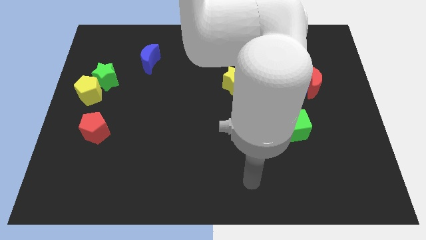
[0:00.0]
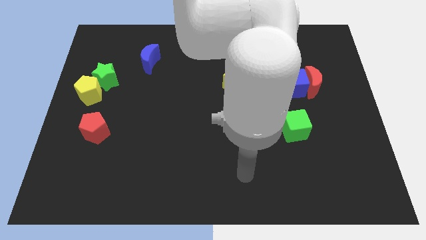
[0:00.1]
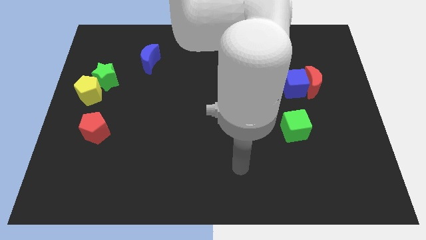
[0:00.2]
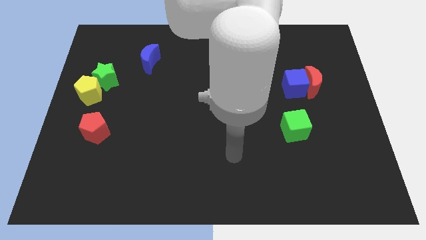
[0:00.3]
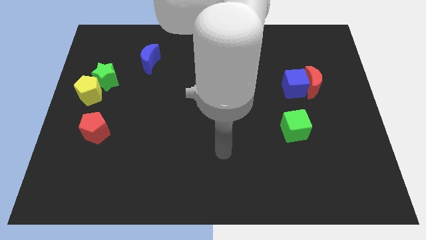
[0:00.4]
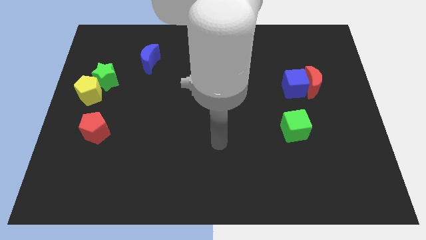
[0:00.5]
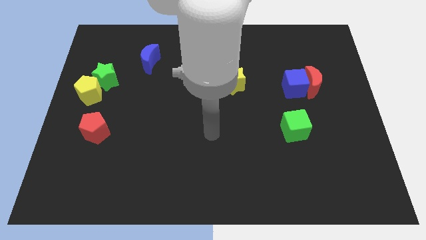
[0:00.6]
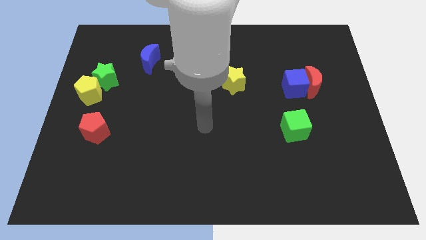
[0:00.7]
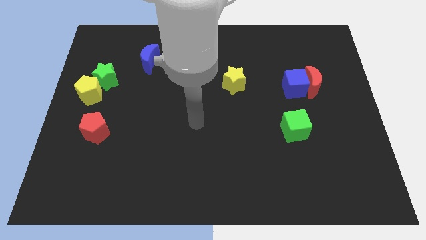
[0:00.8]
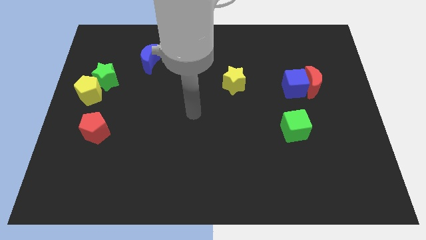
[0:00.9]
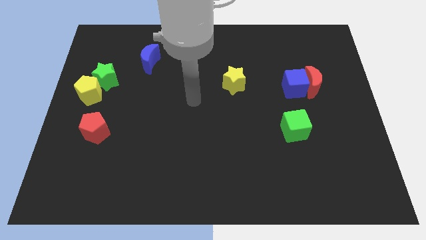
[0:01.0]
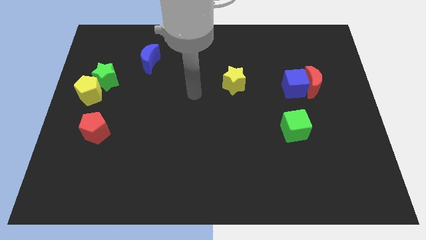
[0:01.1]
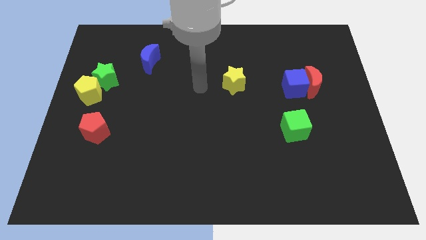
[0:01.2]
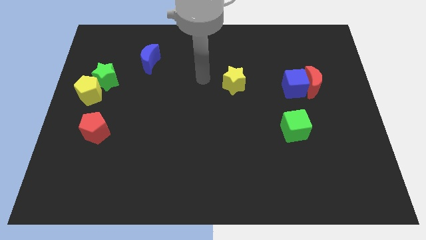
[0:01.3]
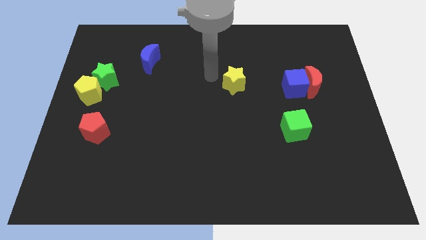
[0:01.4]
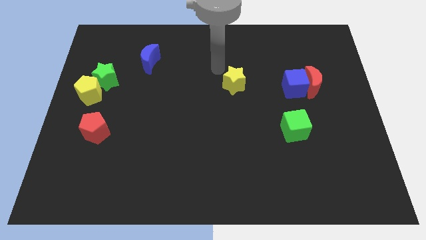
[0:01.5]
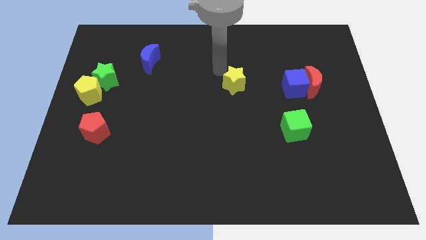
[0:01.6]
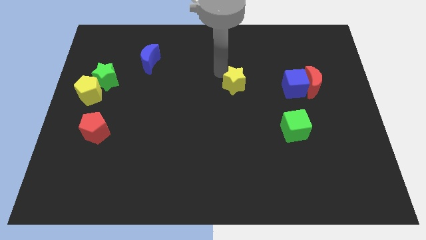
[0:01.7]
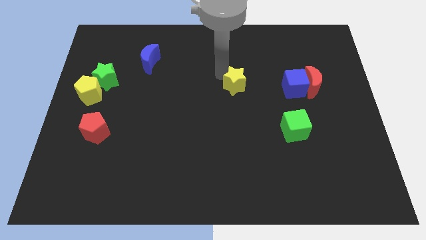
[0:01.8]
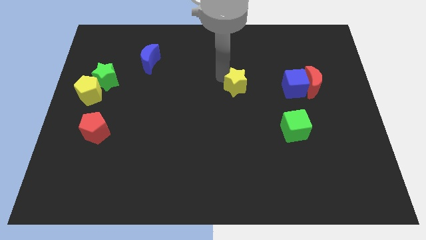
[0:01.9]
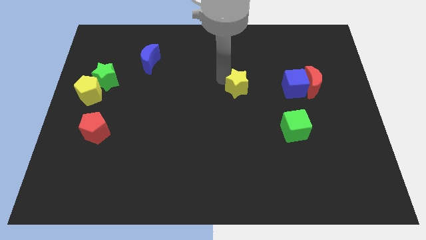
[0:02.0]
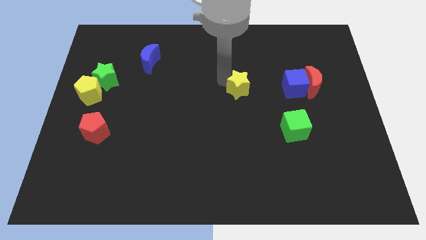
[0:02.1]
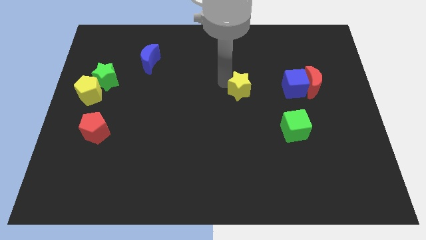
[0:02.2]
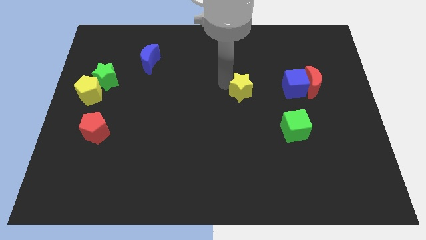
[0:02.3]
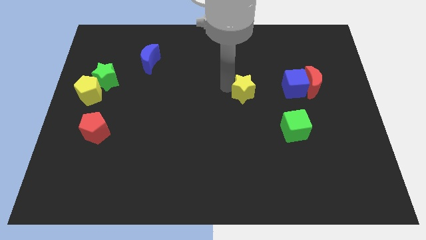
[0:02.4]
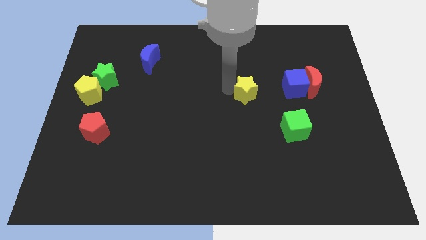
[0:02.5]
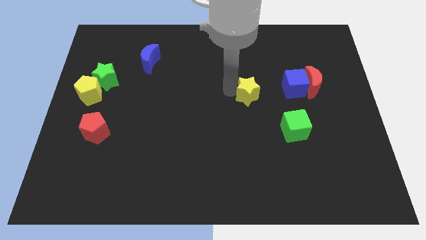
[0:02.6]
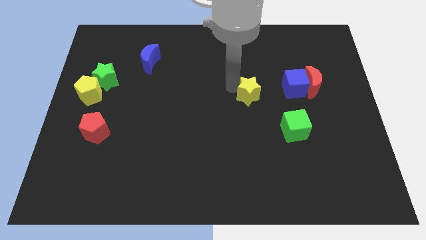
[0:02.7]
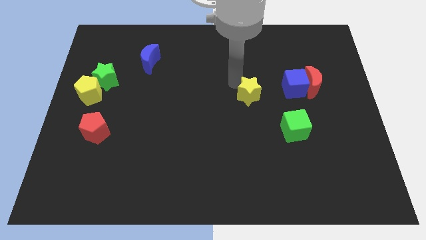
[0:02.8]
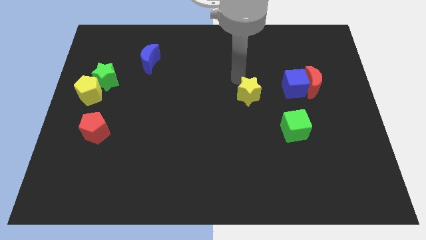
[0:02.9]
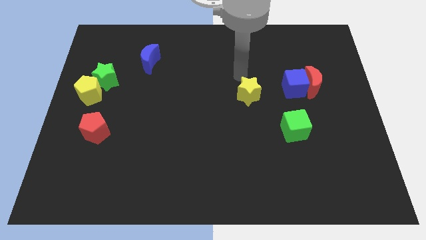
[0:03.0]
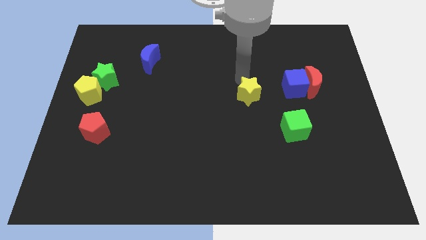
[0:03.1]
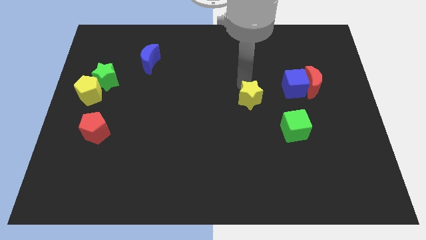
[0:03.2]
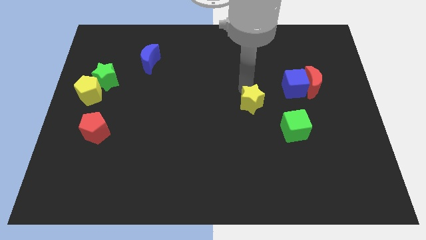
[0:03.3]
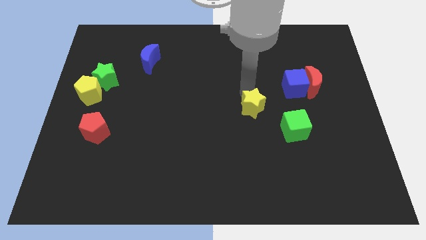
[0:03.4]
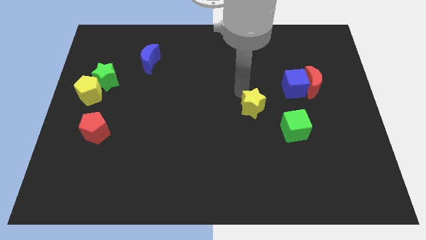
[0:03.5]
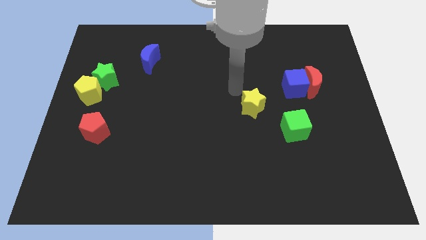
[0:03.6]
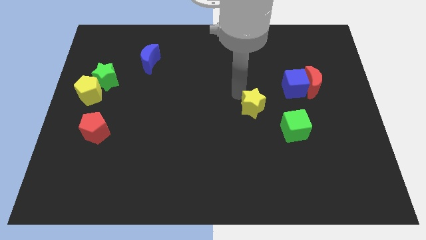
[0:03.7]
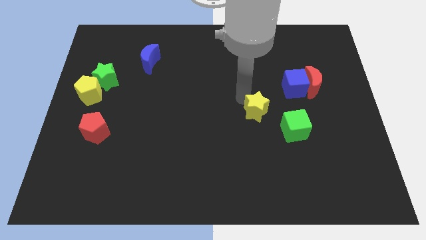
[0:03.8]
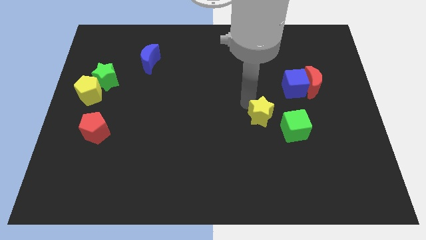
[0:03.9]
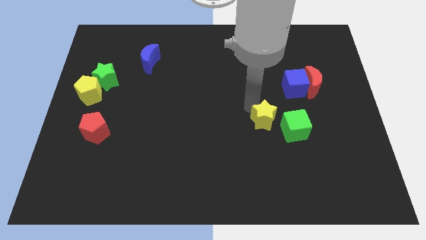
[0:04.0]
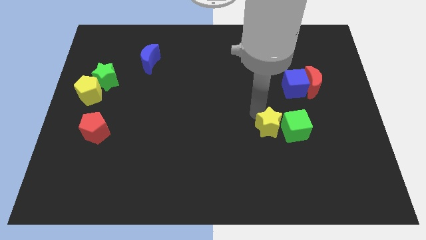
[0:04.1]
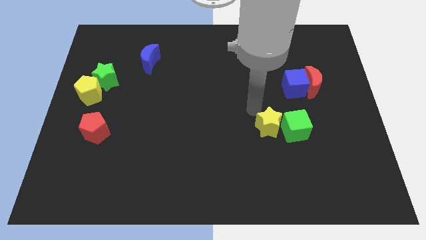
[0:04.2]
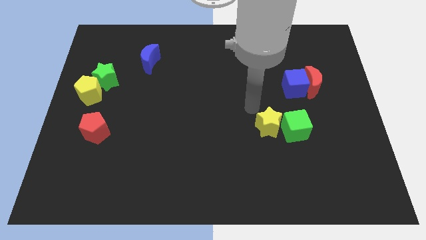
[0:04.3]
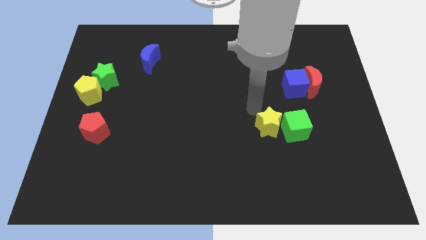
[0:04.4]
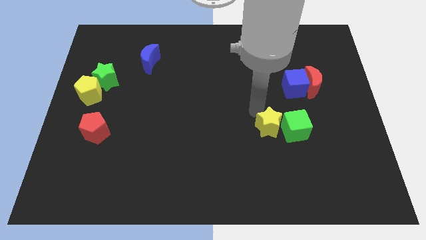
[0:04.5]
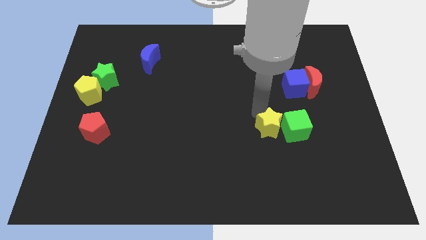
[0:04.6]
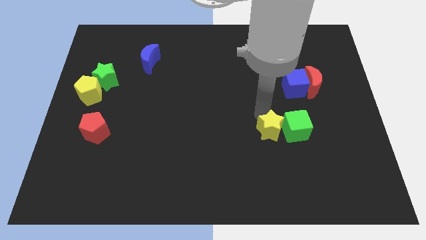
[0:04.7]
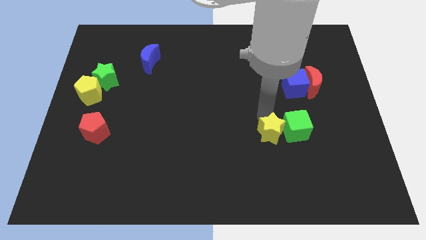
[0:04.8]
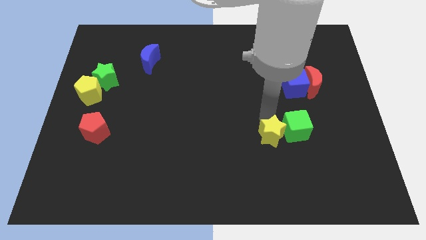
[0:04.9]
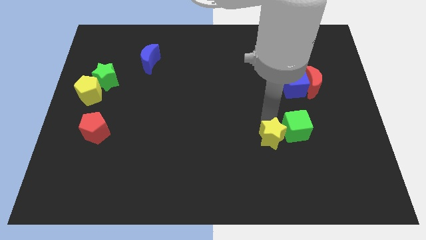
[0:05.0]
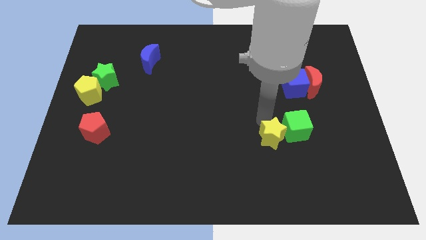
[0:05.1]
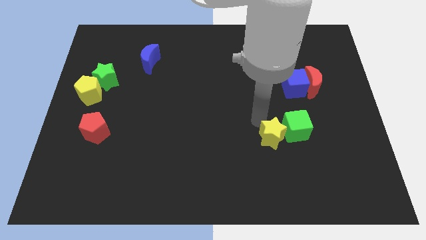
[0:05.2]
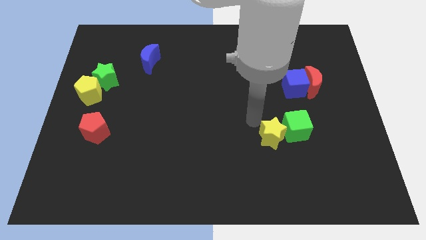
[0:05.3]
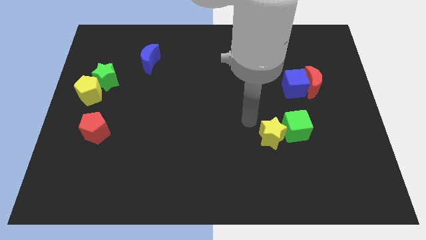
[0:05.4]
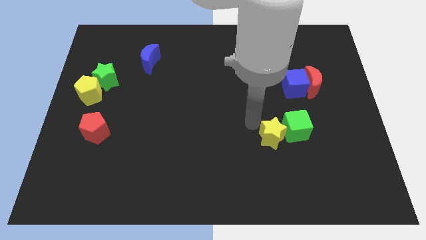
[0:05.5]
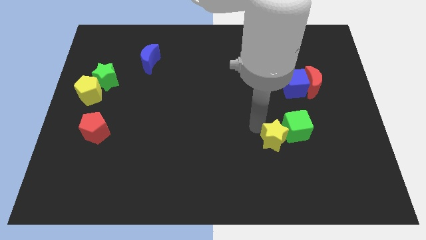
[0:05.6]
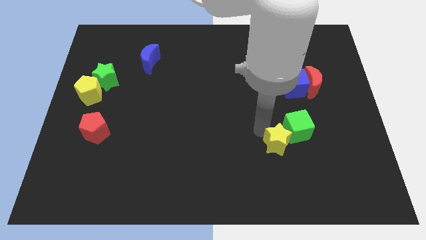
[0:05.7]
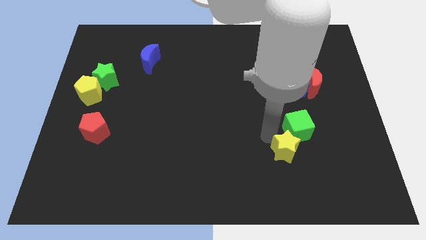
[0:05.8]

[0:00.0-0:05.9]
slide the yellow star to the bottom side of the green cube

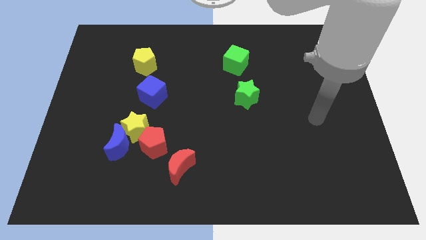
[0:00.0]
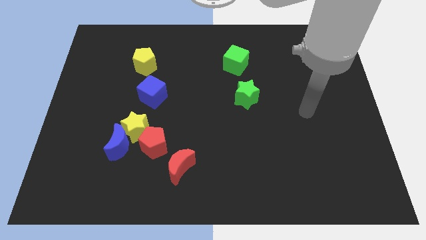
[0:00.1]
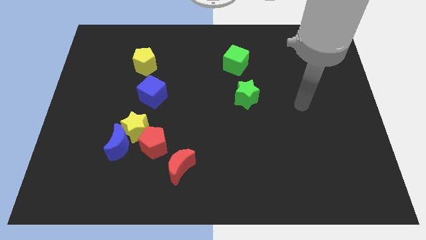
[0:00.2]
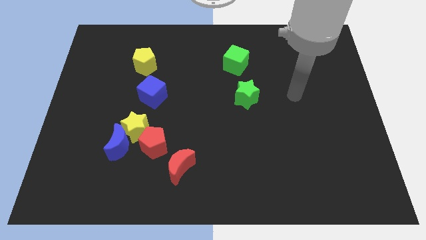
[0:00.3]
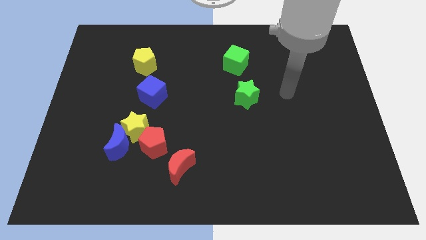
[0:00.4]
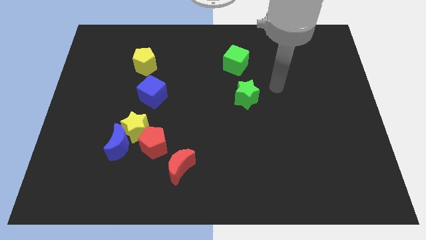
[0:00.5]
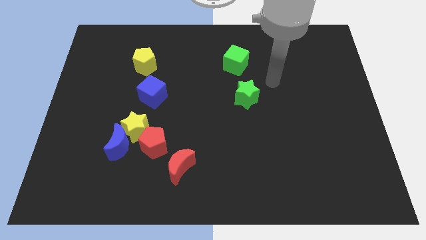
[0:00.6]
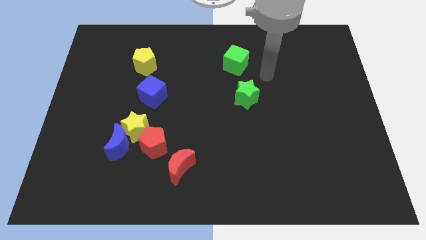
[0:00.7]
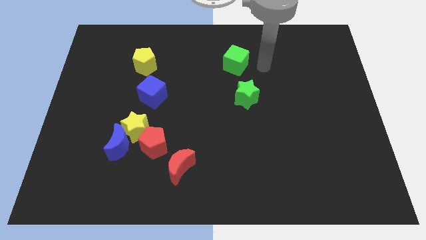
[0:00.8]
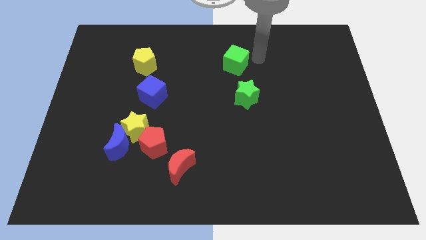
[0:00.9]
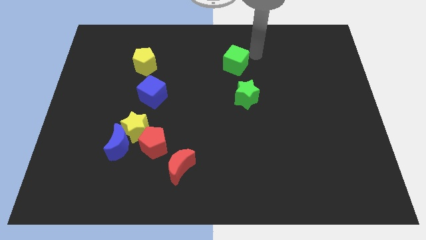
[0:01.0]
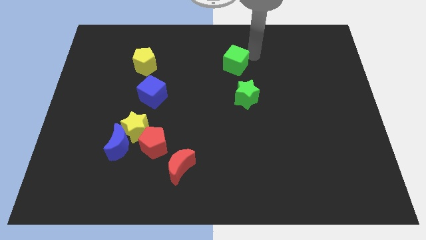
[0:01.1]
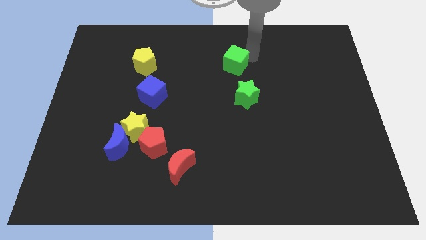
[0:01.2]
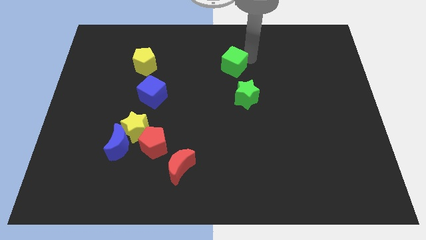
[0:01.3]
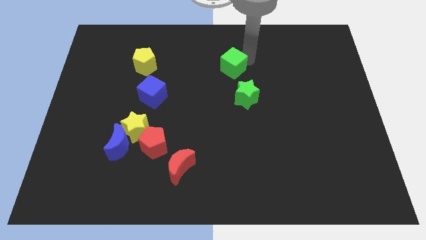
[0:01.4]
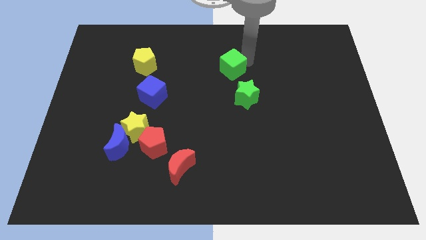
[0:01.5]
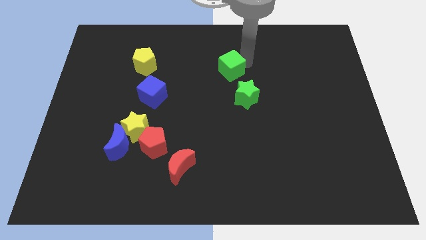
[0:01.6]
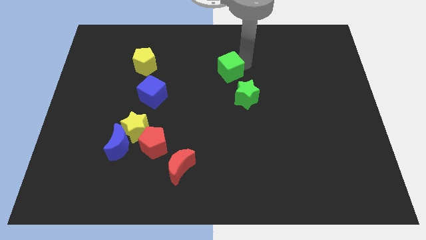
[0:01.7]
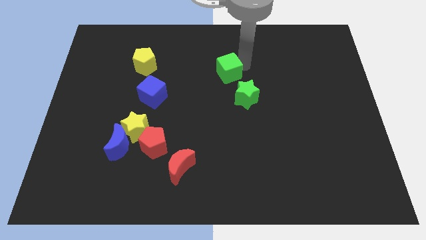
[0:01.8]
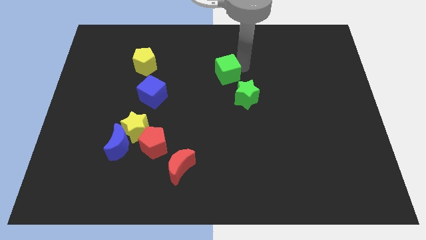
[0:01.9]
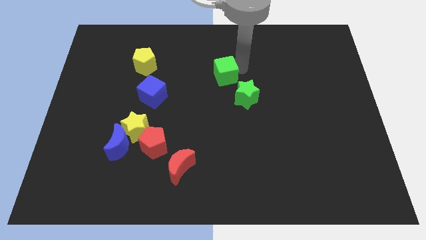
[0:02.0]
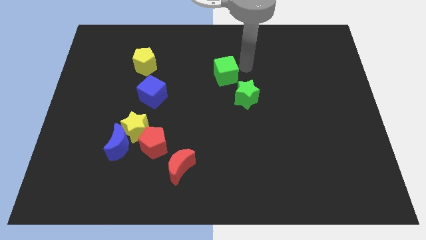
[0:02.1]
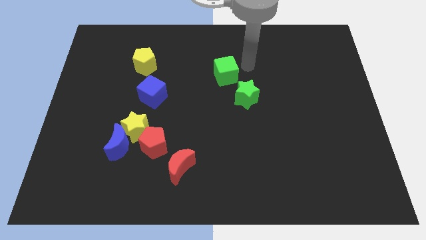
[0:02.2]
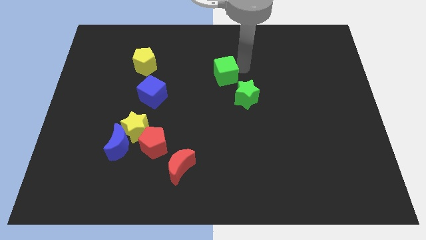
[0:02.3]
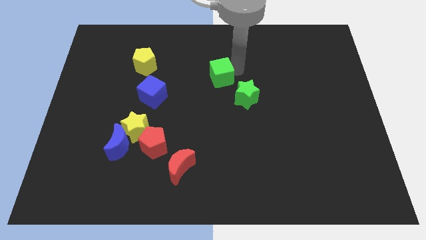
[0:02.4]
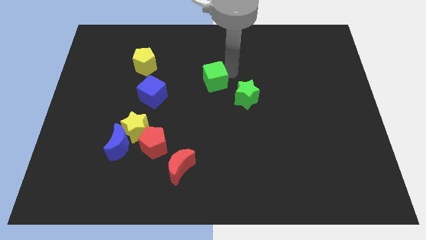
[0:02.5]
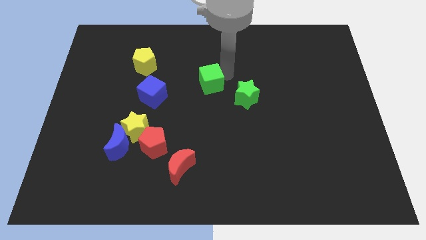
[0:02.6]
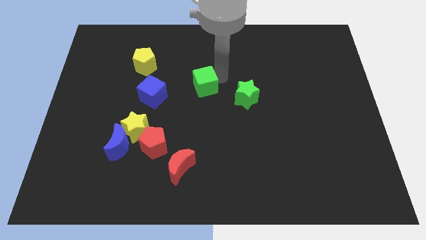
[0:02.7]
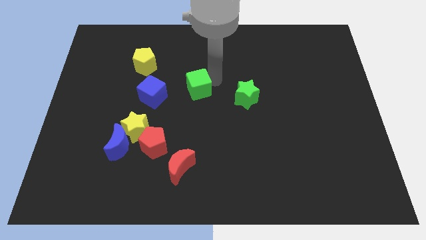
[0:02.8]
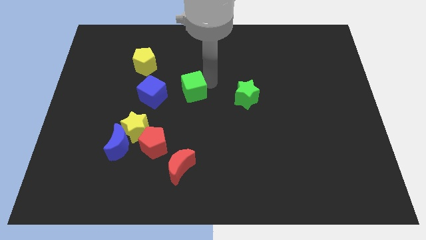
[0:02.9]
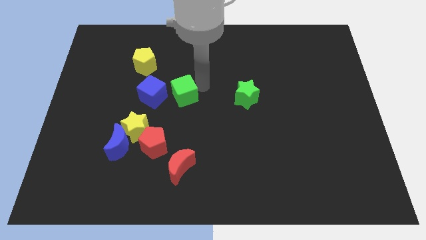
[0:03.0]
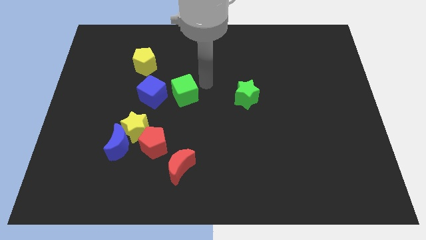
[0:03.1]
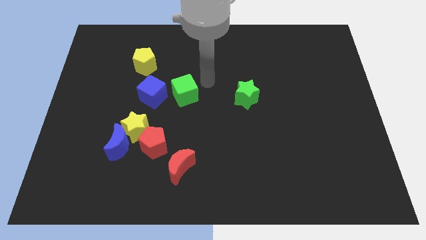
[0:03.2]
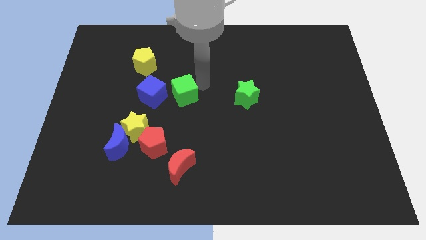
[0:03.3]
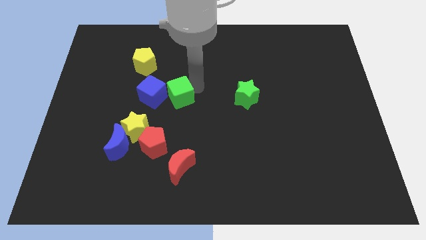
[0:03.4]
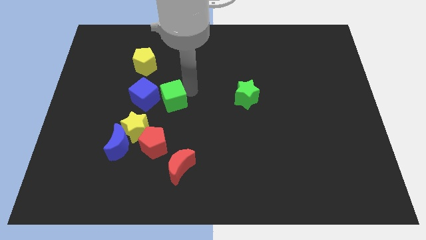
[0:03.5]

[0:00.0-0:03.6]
push the green cube to the top side of the red pentagon
